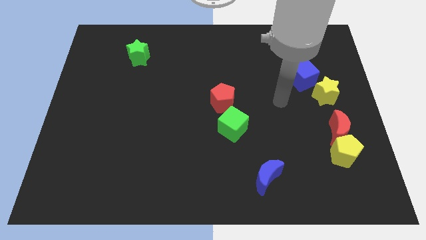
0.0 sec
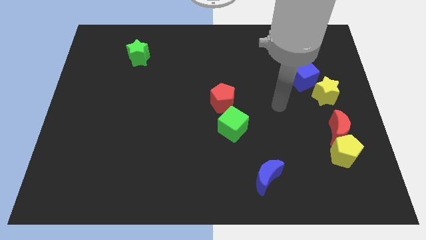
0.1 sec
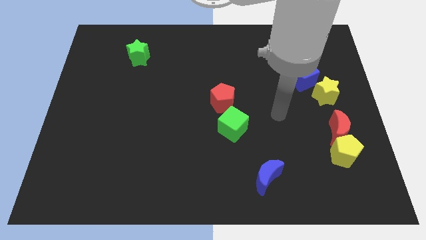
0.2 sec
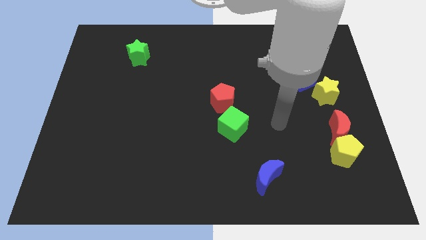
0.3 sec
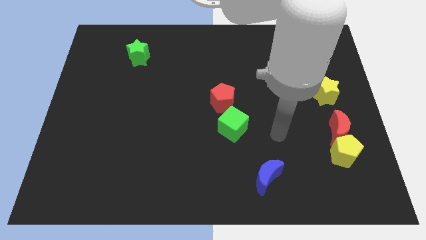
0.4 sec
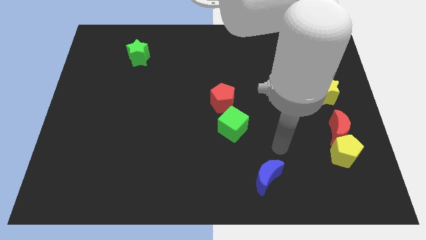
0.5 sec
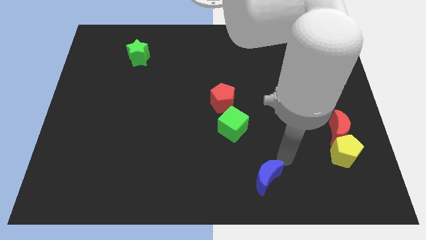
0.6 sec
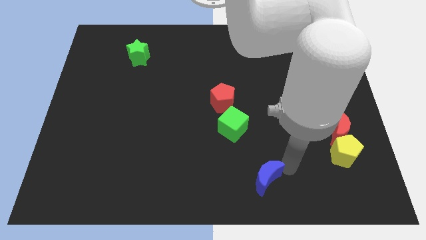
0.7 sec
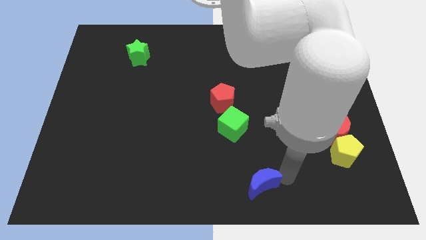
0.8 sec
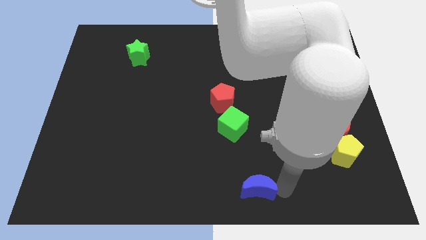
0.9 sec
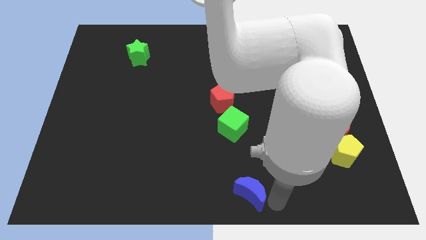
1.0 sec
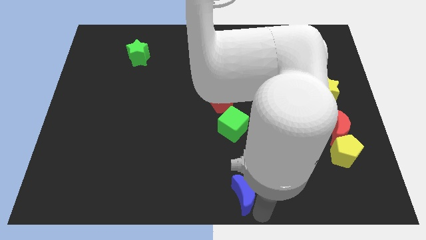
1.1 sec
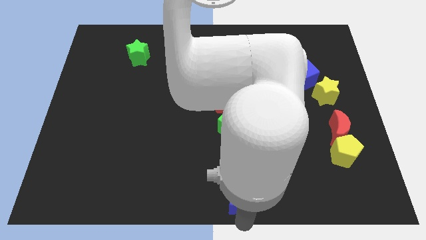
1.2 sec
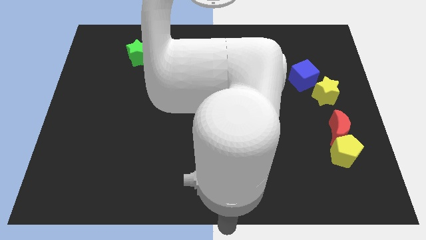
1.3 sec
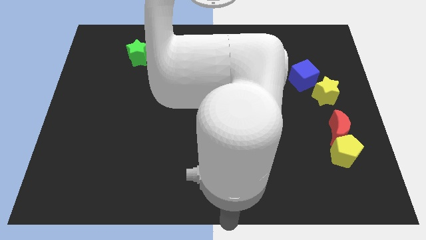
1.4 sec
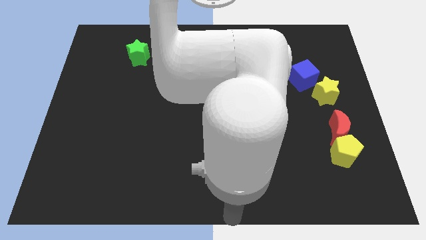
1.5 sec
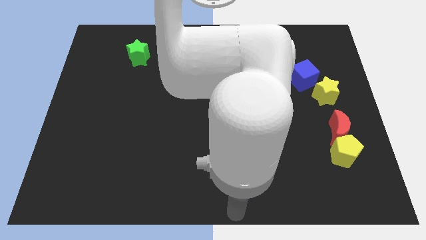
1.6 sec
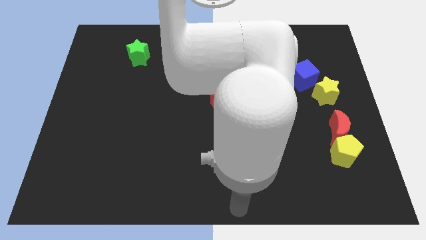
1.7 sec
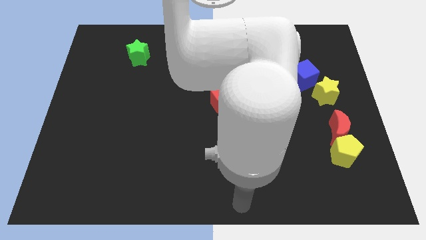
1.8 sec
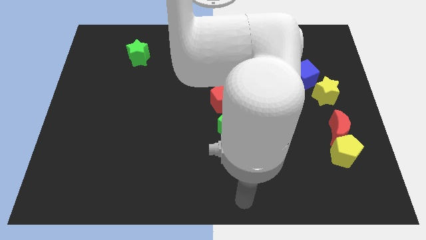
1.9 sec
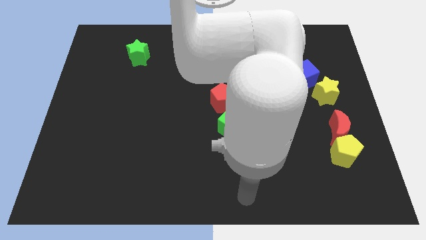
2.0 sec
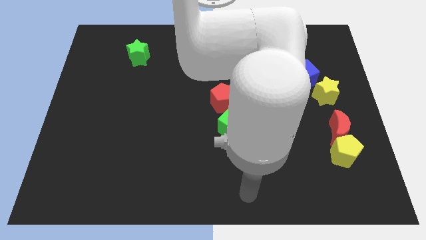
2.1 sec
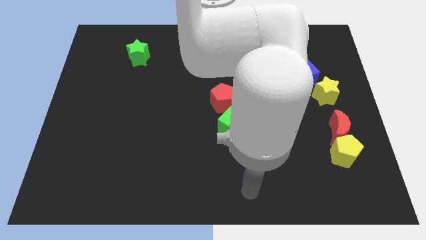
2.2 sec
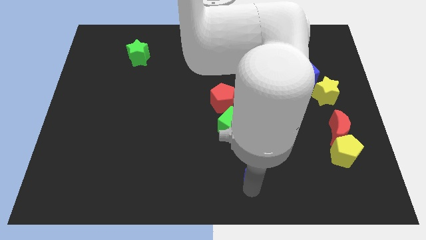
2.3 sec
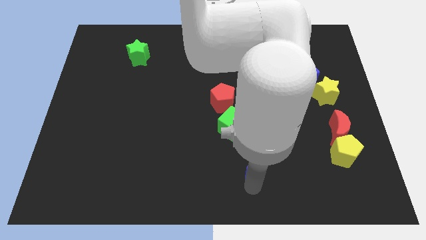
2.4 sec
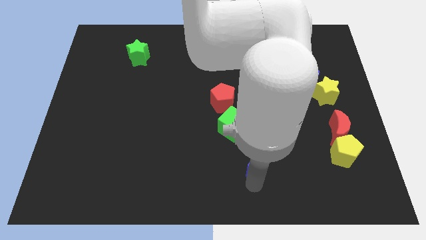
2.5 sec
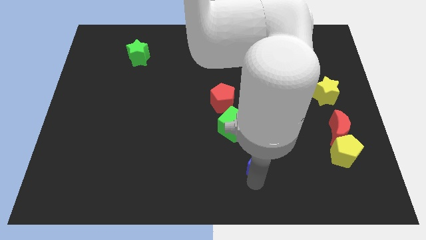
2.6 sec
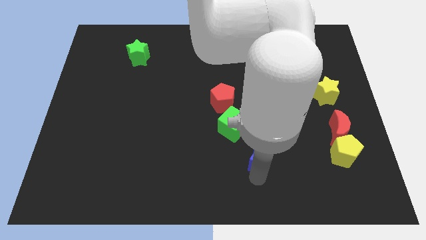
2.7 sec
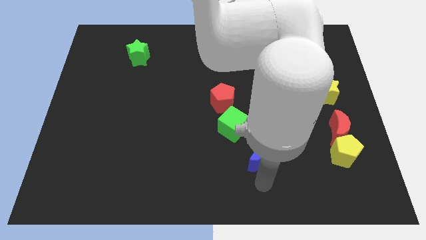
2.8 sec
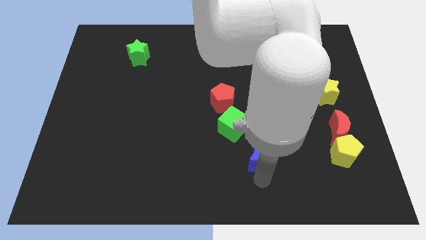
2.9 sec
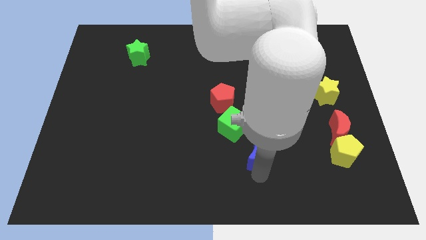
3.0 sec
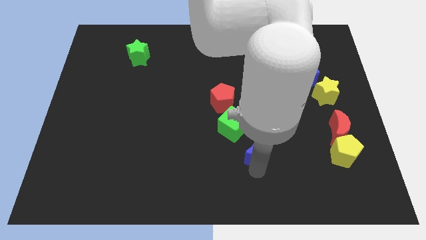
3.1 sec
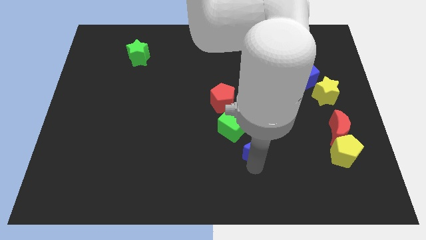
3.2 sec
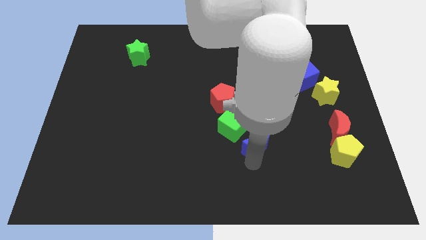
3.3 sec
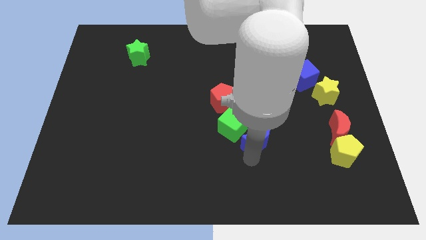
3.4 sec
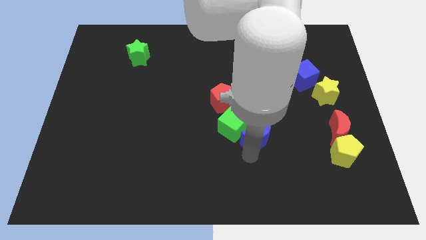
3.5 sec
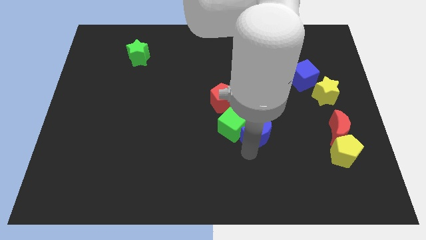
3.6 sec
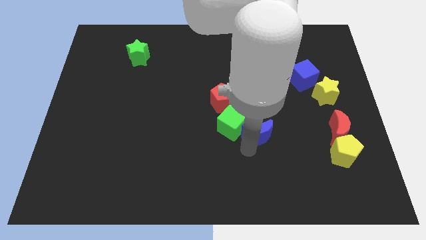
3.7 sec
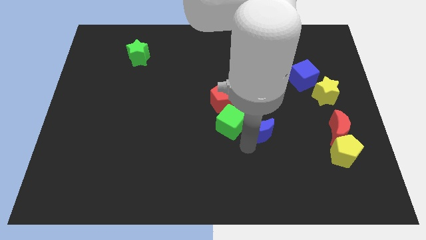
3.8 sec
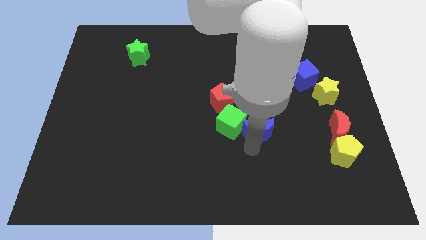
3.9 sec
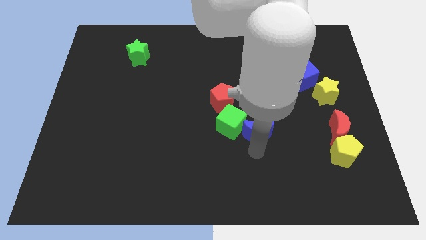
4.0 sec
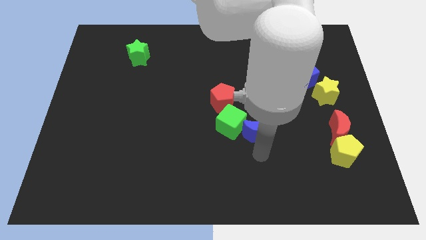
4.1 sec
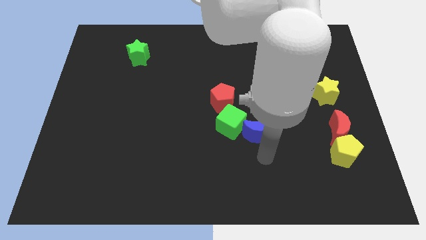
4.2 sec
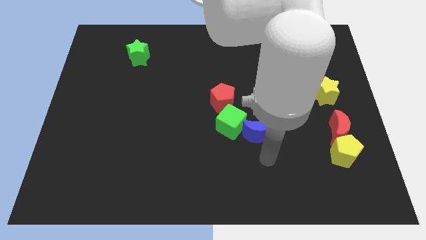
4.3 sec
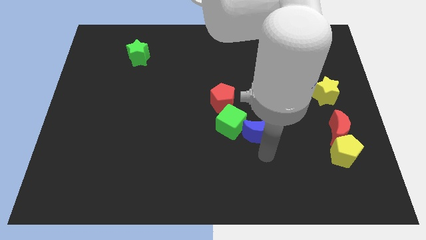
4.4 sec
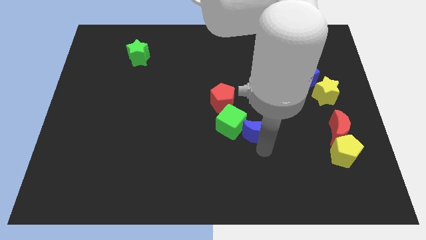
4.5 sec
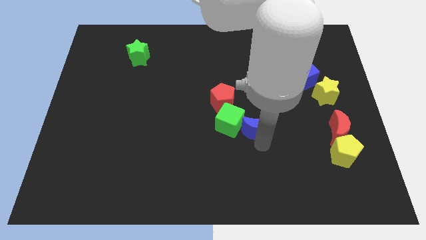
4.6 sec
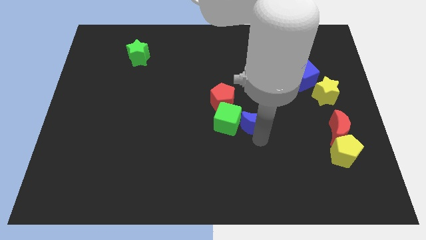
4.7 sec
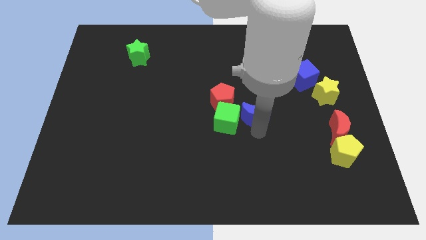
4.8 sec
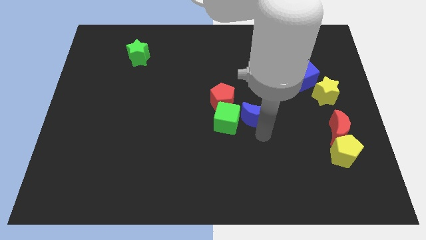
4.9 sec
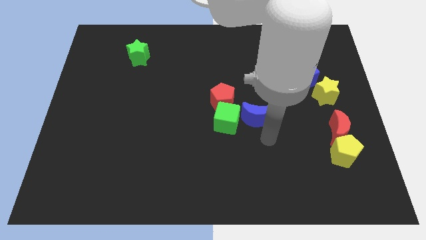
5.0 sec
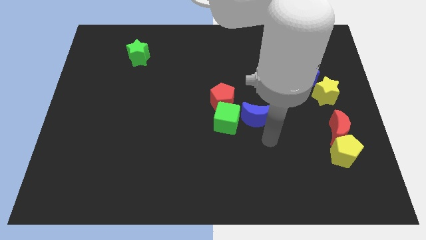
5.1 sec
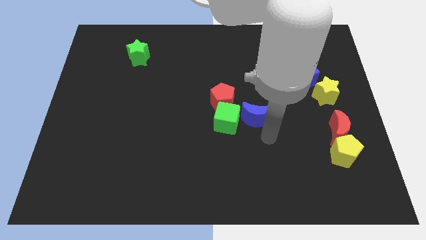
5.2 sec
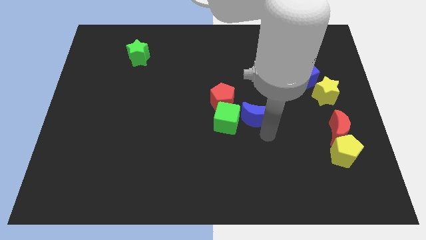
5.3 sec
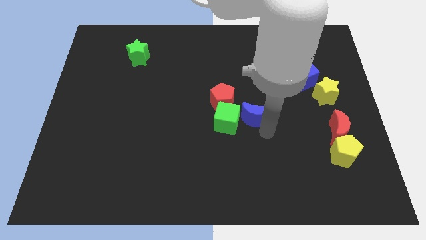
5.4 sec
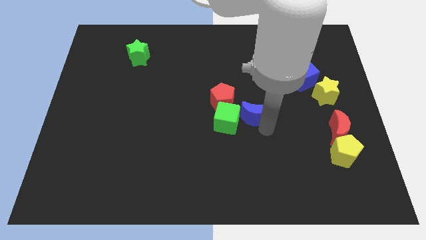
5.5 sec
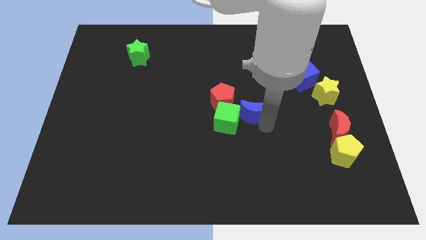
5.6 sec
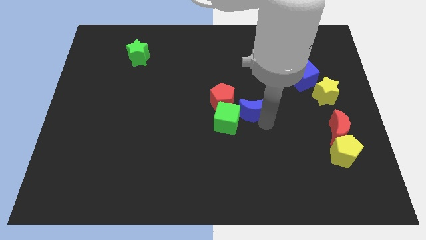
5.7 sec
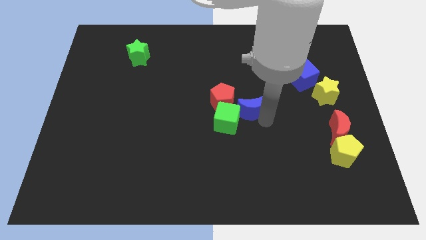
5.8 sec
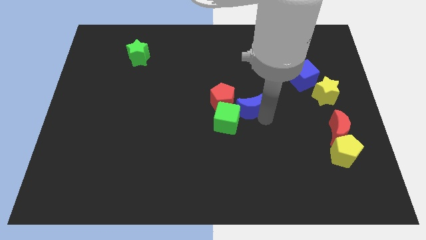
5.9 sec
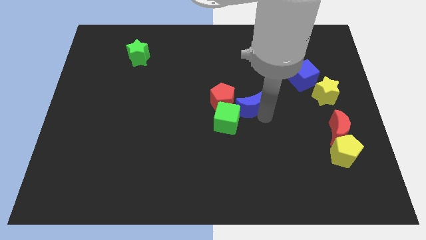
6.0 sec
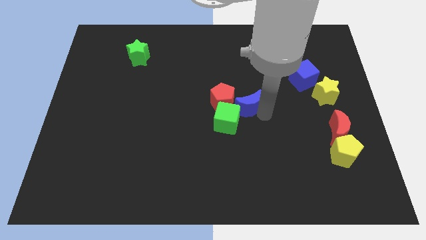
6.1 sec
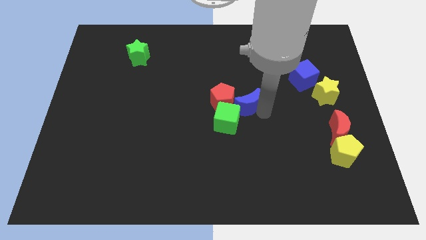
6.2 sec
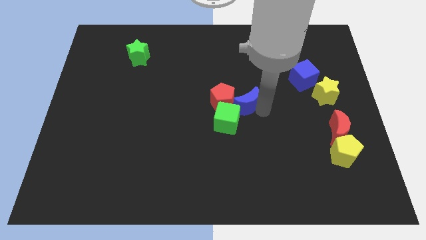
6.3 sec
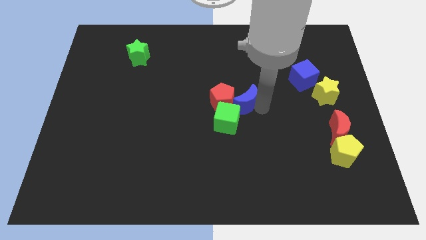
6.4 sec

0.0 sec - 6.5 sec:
put the blue moon above the green cube

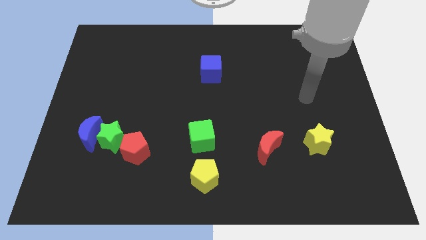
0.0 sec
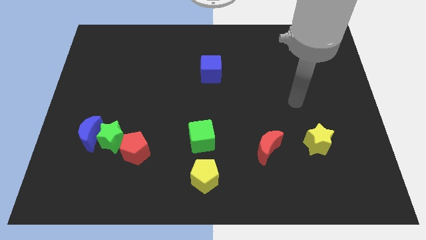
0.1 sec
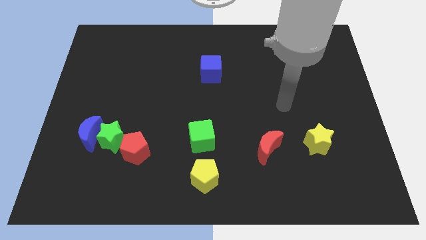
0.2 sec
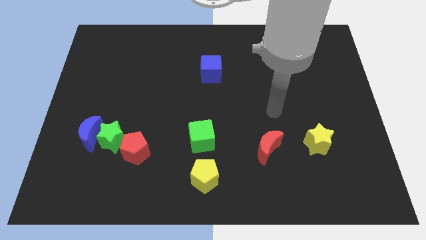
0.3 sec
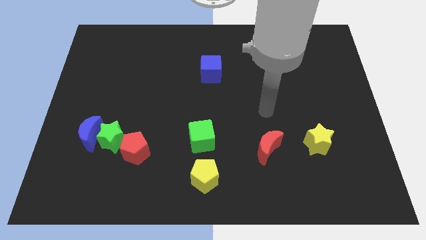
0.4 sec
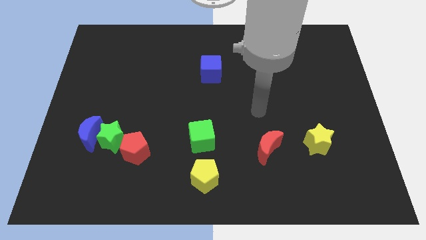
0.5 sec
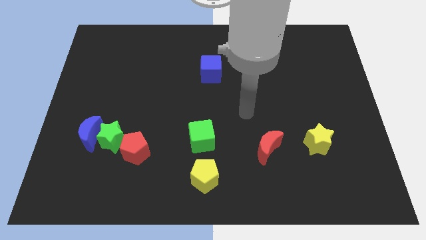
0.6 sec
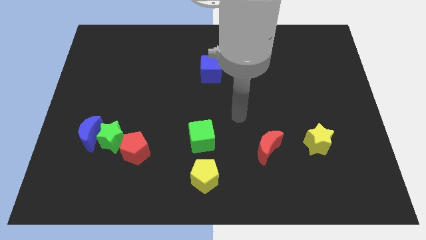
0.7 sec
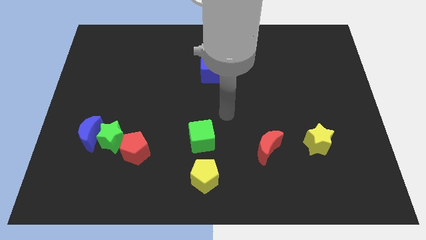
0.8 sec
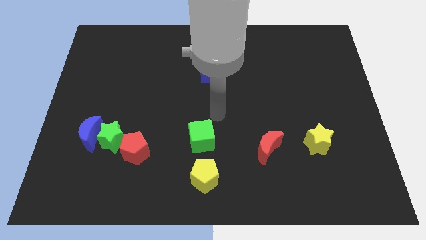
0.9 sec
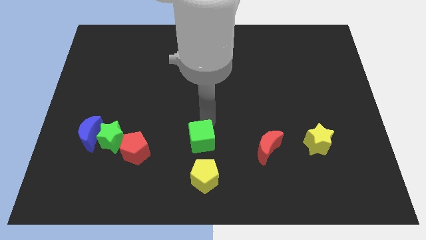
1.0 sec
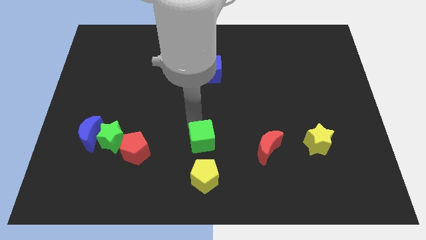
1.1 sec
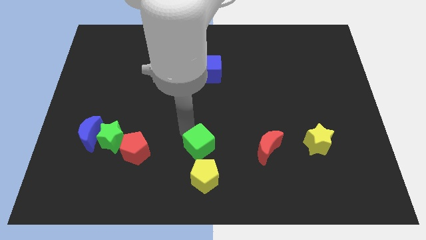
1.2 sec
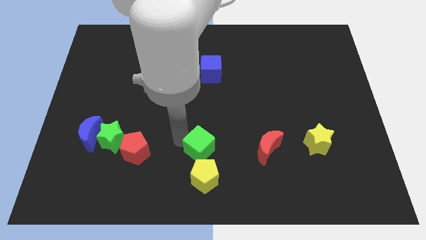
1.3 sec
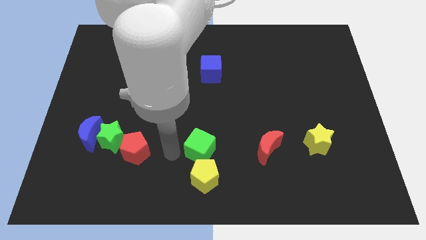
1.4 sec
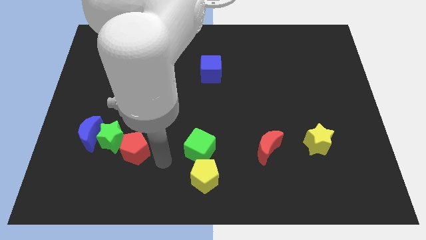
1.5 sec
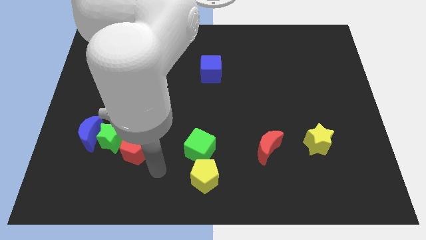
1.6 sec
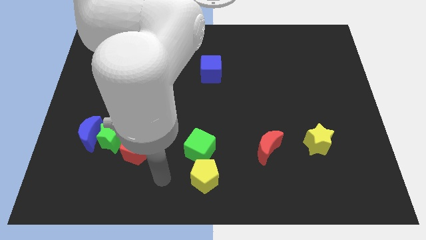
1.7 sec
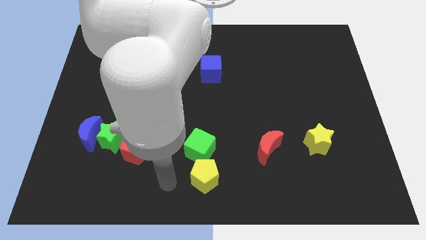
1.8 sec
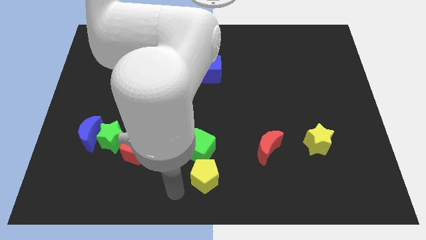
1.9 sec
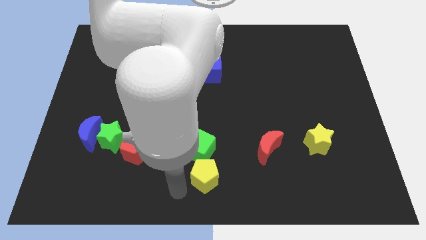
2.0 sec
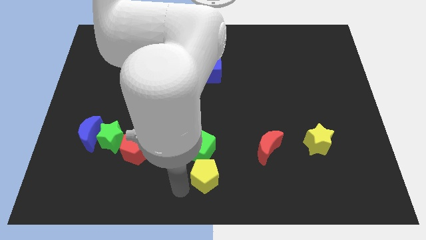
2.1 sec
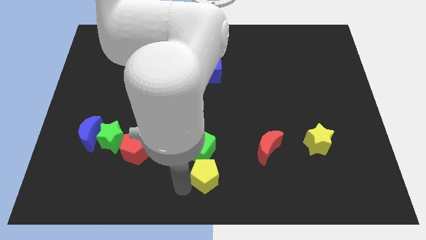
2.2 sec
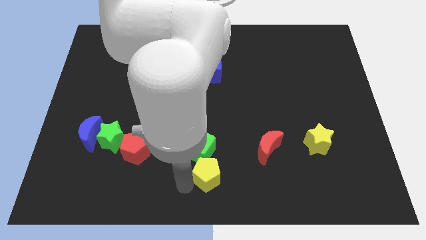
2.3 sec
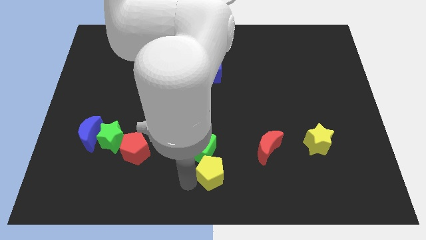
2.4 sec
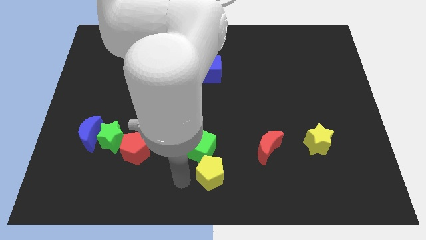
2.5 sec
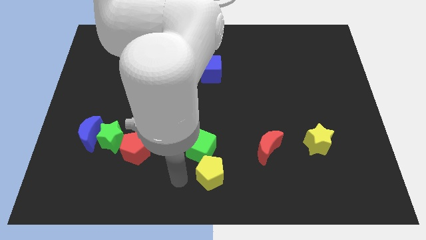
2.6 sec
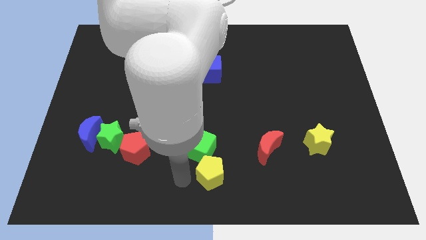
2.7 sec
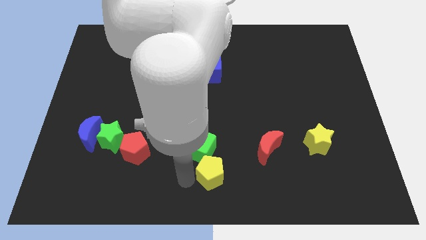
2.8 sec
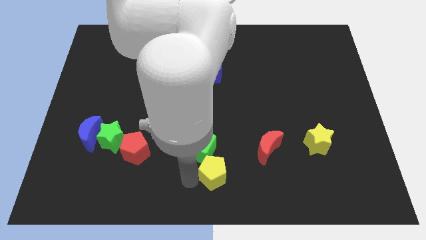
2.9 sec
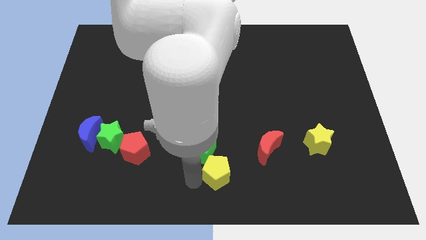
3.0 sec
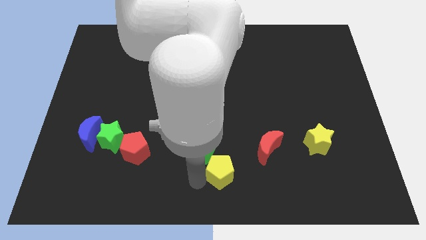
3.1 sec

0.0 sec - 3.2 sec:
slide the yellow pentagon to the bottom left side of the red moon
